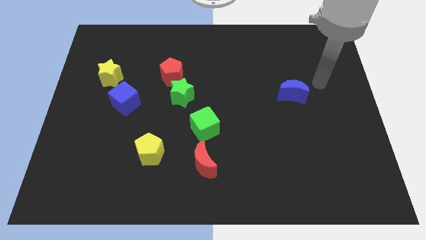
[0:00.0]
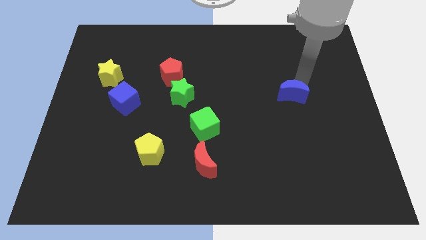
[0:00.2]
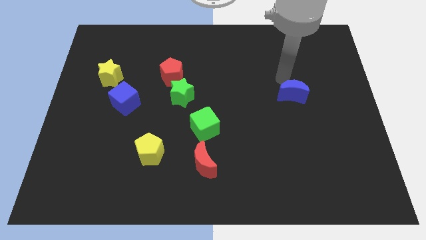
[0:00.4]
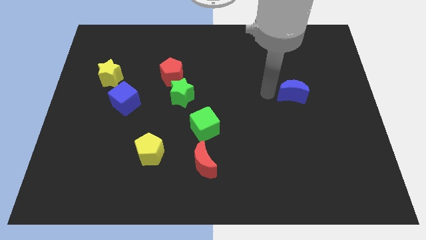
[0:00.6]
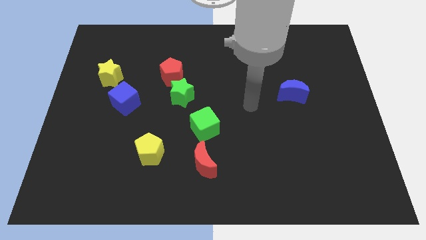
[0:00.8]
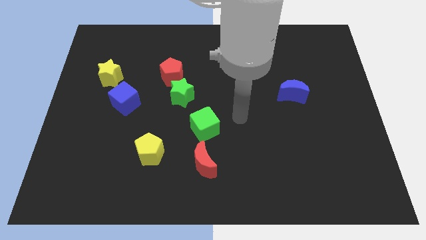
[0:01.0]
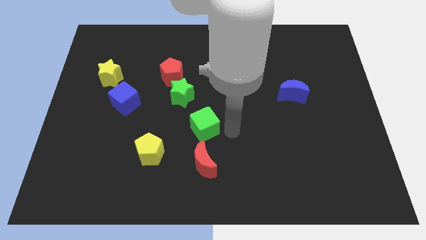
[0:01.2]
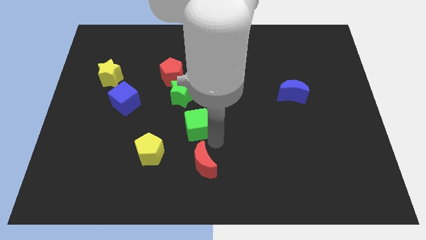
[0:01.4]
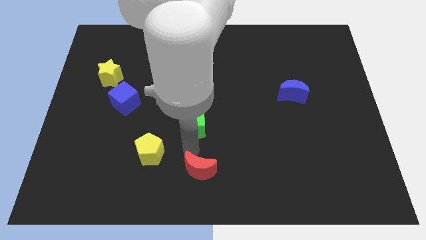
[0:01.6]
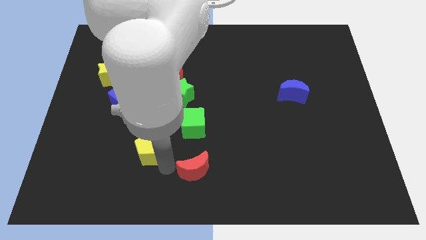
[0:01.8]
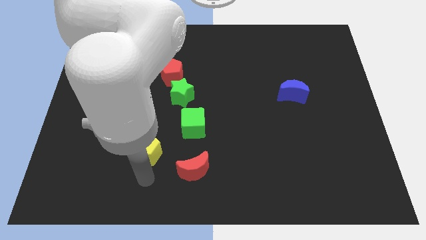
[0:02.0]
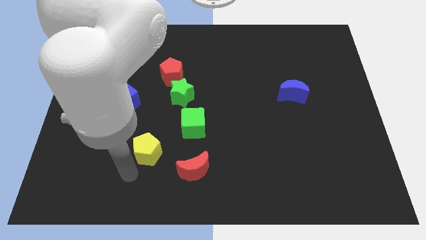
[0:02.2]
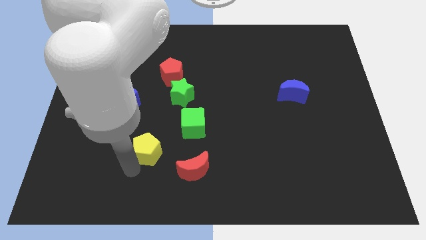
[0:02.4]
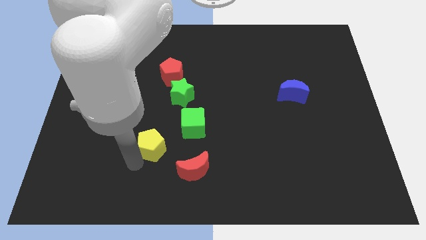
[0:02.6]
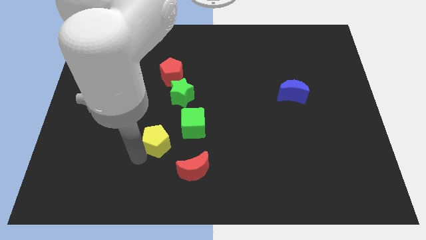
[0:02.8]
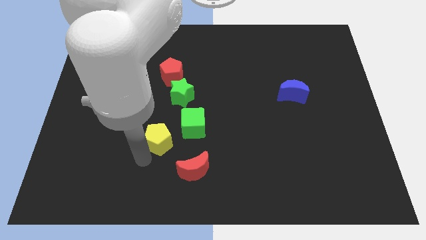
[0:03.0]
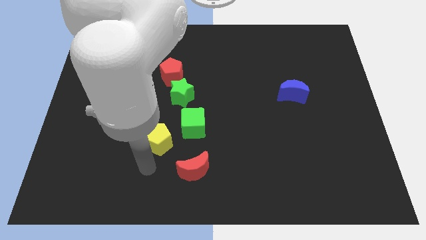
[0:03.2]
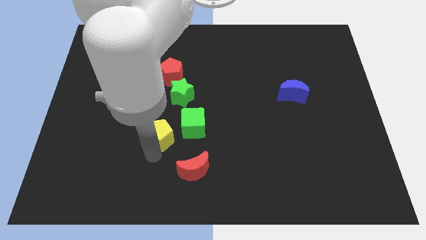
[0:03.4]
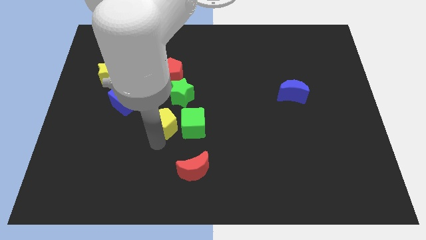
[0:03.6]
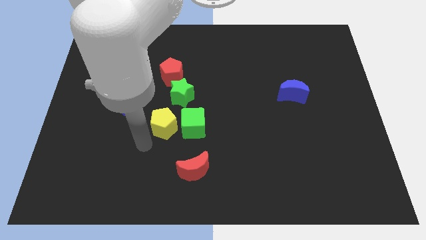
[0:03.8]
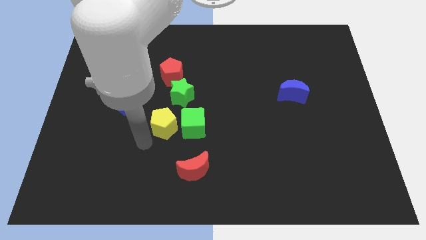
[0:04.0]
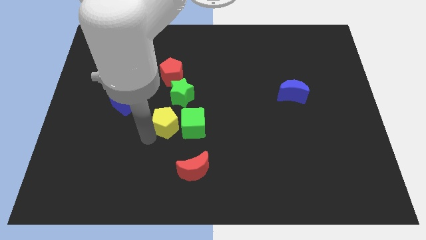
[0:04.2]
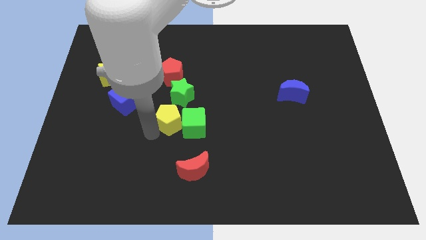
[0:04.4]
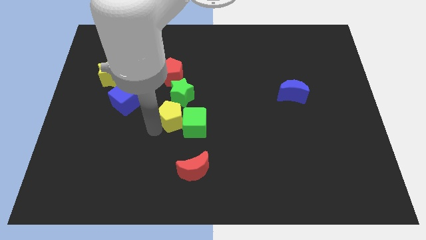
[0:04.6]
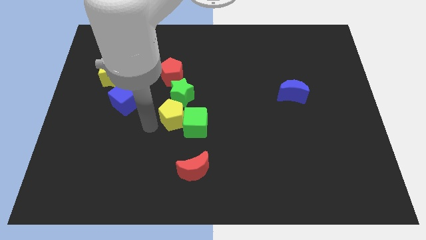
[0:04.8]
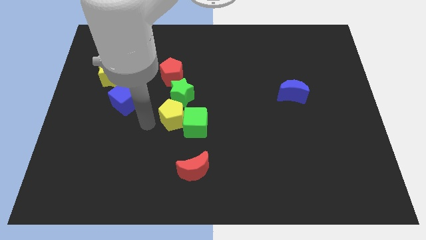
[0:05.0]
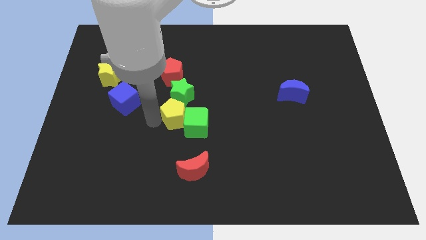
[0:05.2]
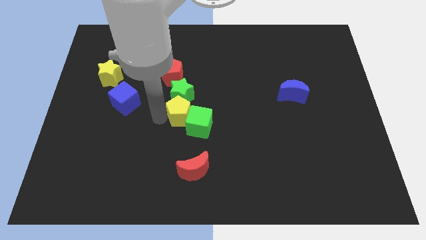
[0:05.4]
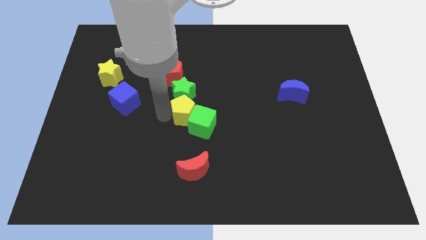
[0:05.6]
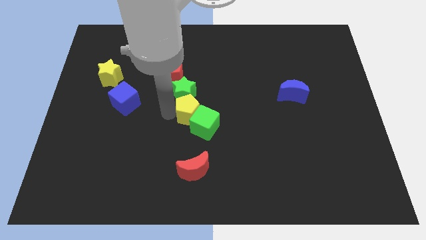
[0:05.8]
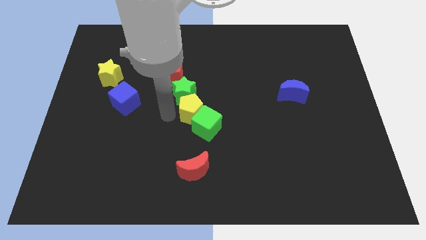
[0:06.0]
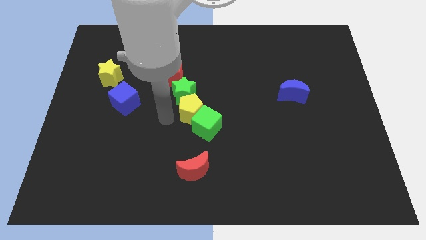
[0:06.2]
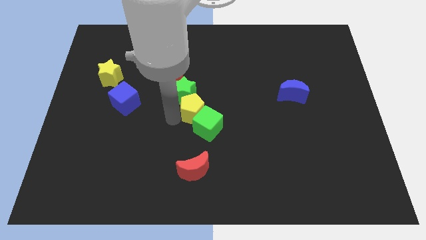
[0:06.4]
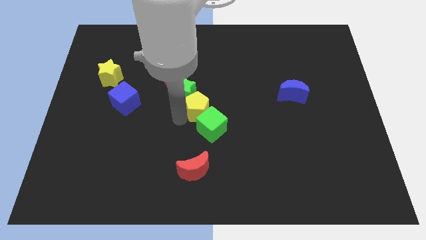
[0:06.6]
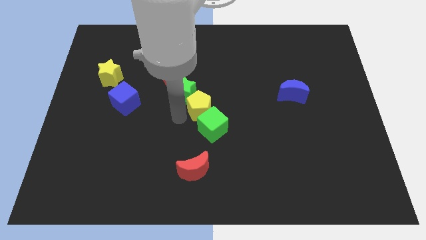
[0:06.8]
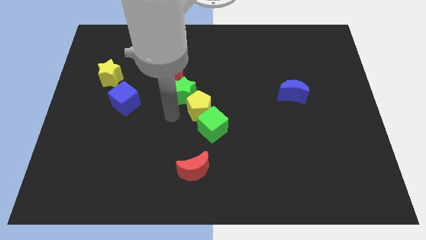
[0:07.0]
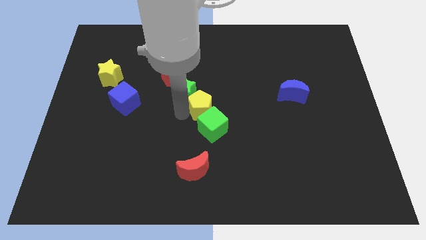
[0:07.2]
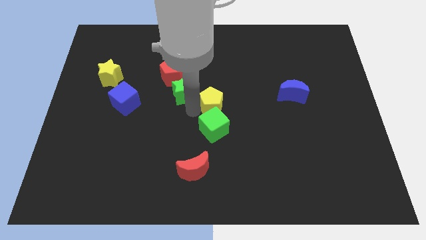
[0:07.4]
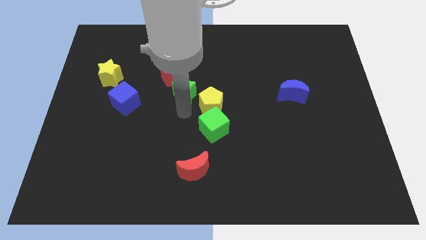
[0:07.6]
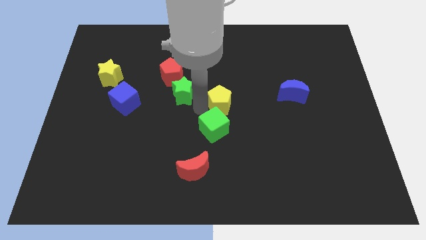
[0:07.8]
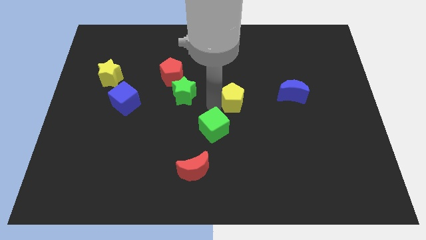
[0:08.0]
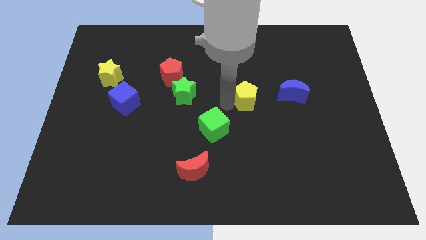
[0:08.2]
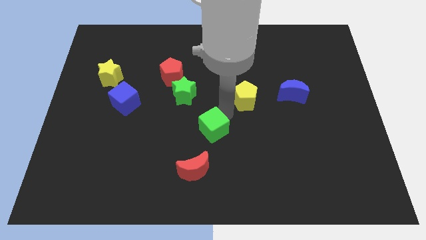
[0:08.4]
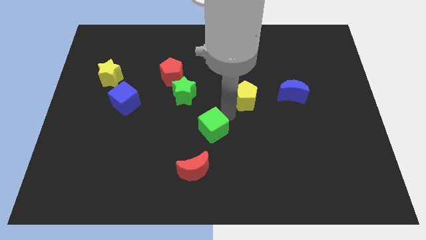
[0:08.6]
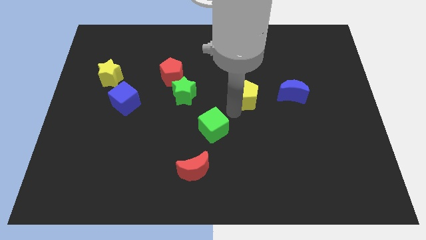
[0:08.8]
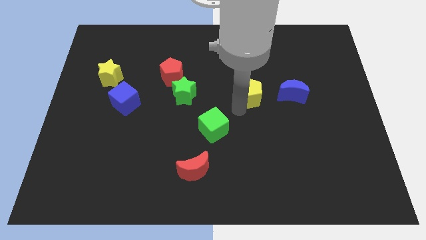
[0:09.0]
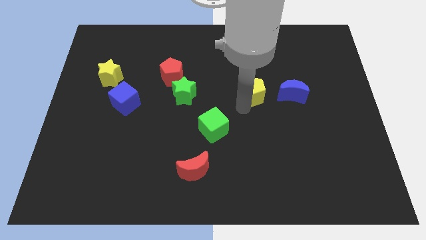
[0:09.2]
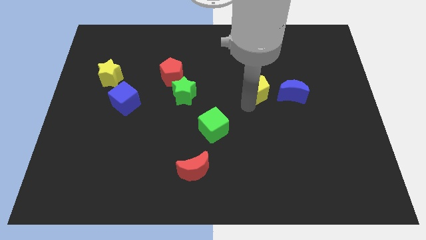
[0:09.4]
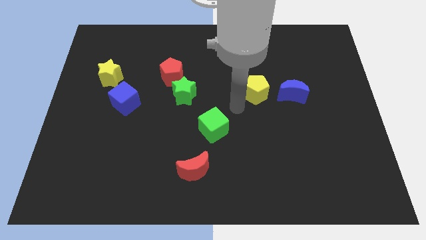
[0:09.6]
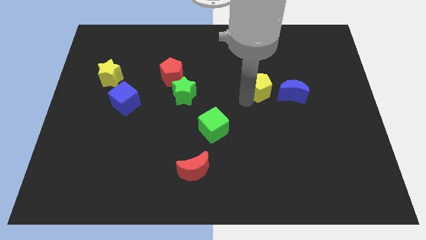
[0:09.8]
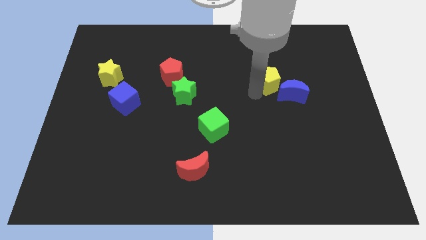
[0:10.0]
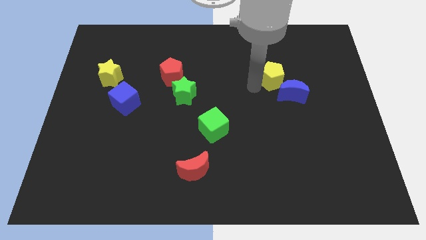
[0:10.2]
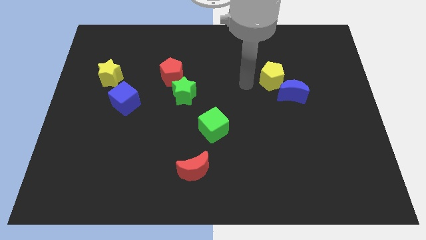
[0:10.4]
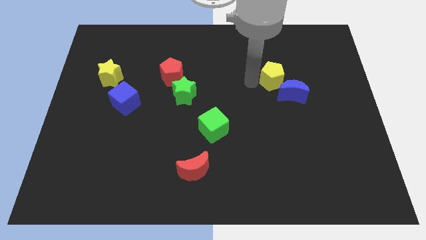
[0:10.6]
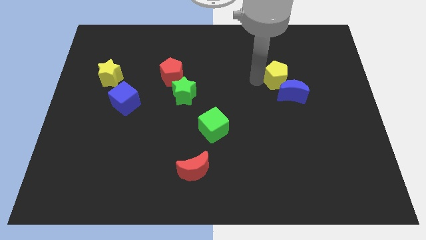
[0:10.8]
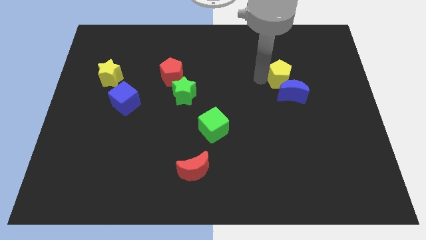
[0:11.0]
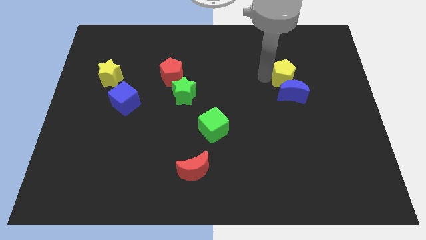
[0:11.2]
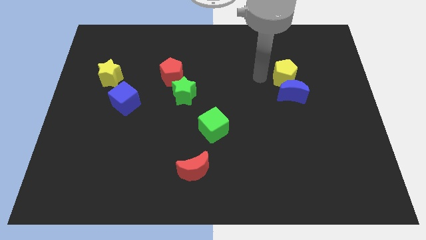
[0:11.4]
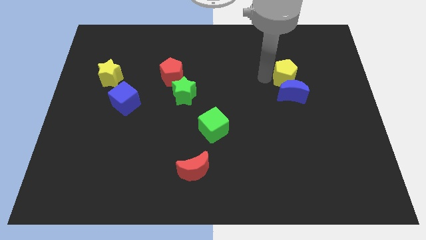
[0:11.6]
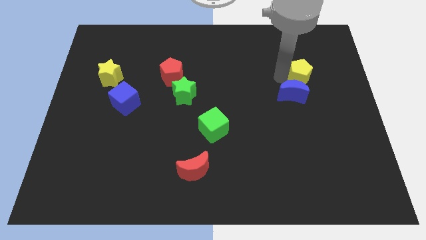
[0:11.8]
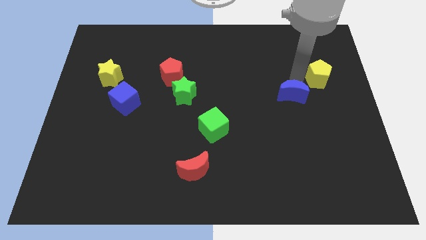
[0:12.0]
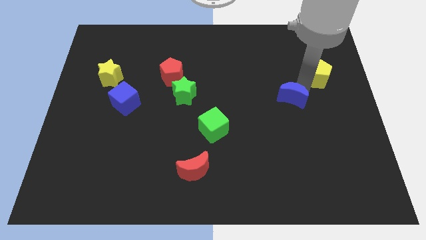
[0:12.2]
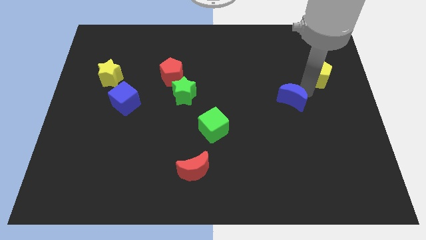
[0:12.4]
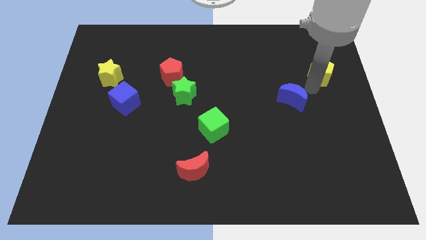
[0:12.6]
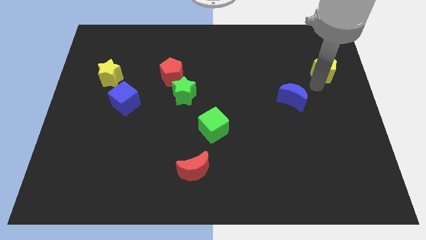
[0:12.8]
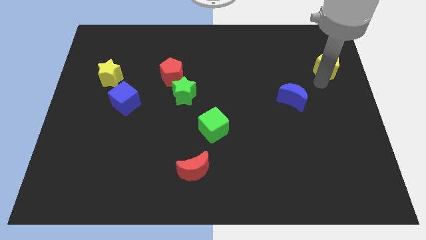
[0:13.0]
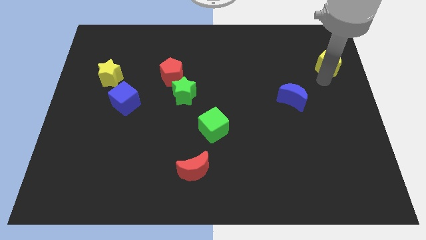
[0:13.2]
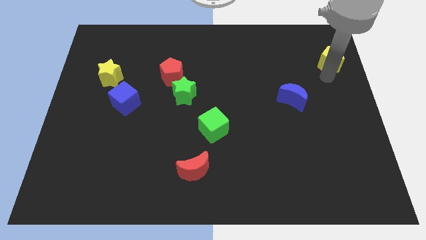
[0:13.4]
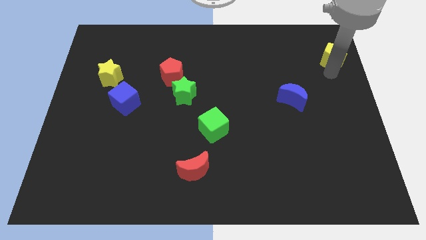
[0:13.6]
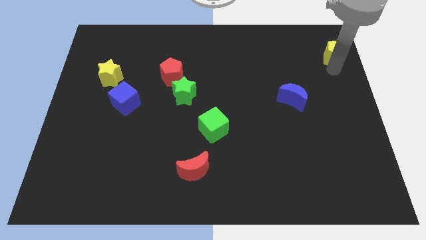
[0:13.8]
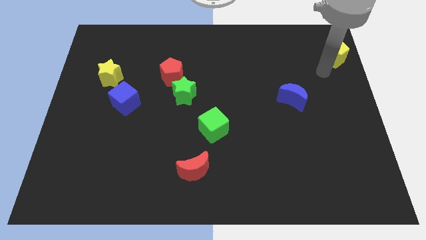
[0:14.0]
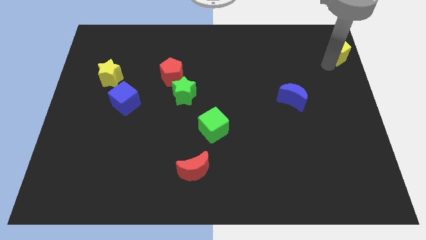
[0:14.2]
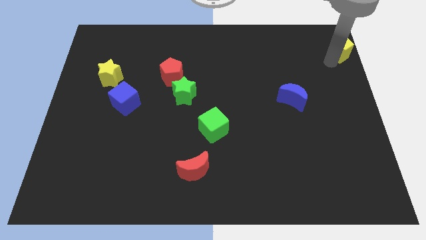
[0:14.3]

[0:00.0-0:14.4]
put the yellow pentagon to the top right corner
